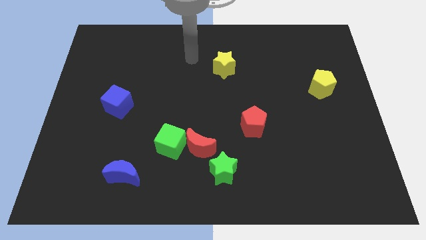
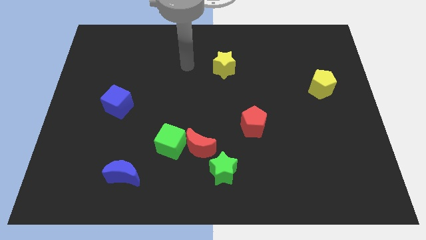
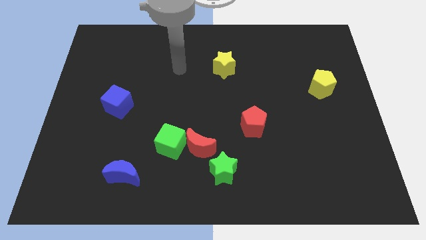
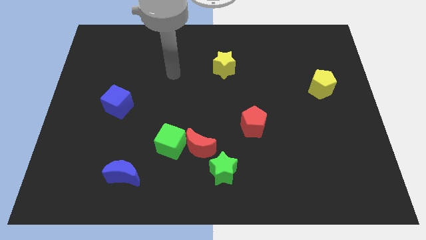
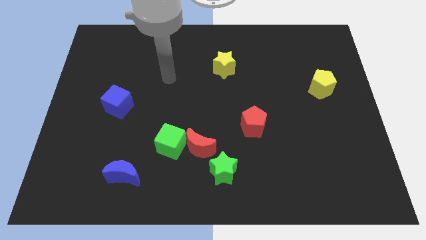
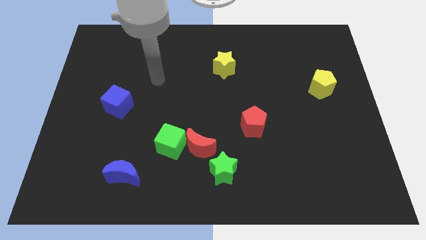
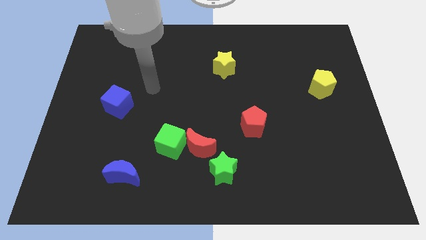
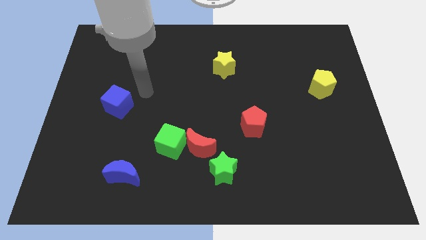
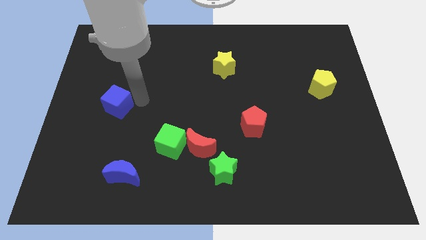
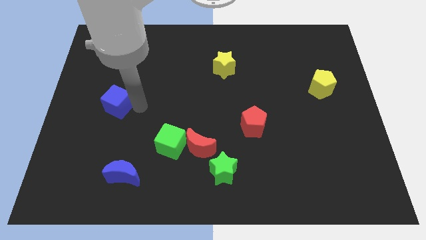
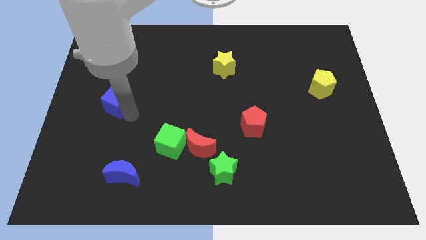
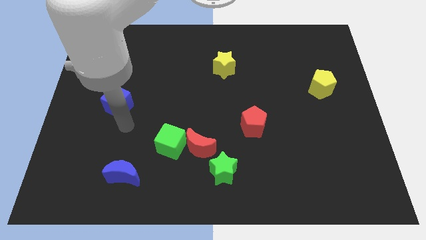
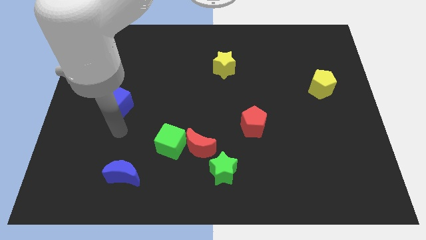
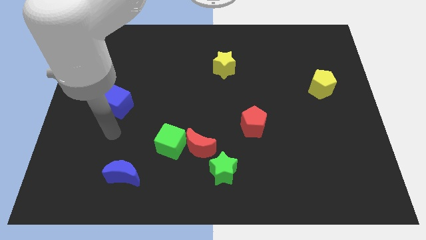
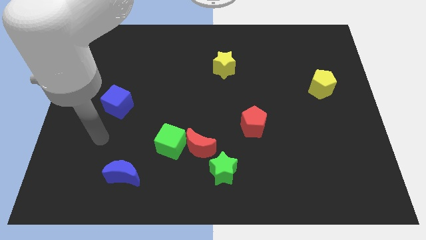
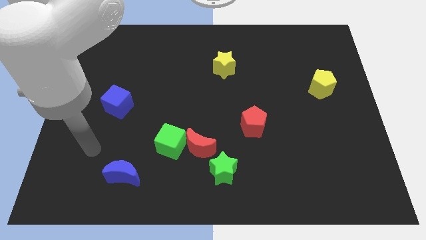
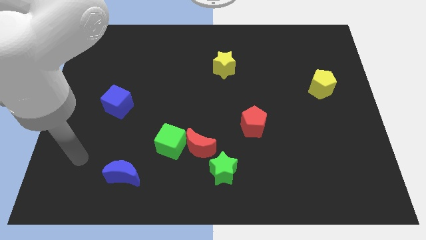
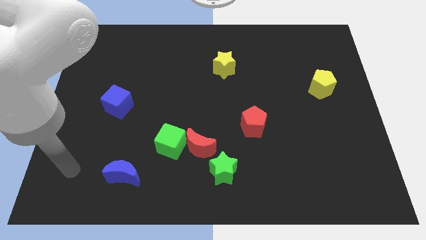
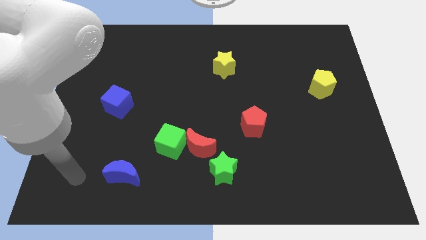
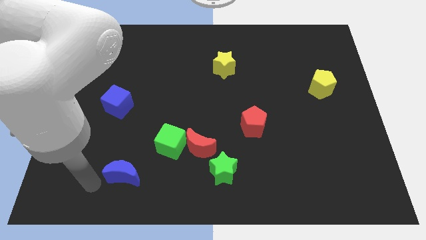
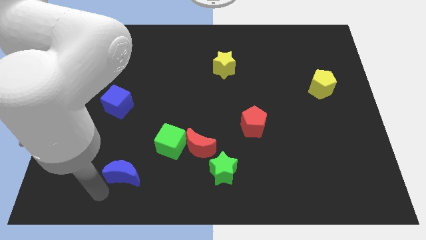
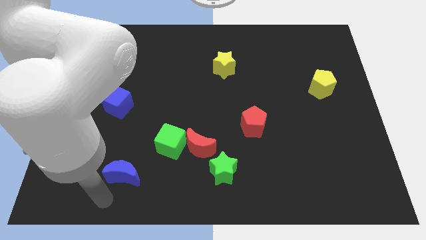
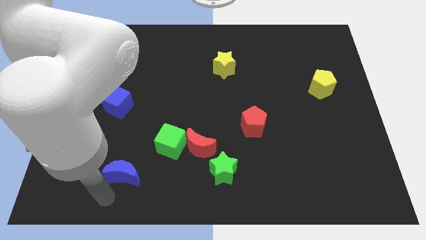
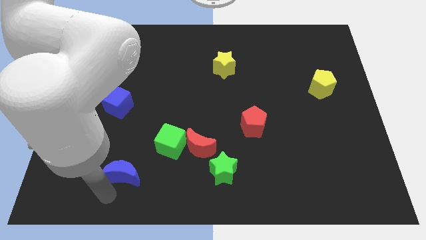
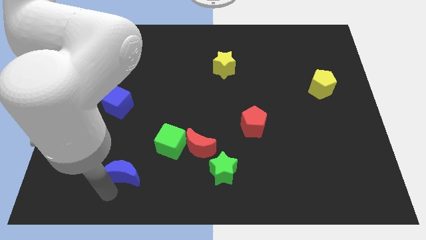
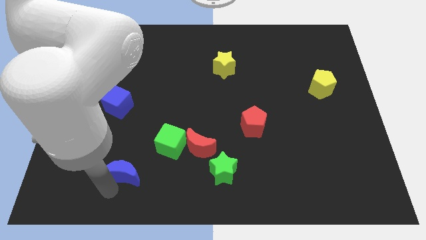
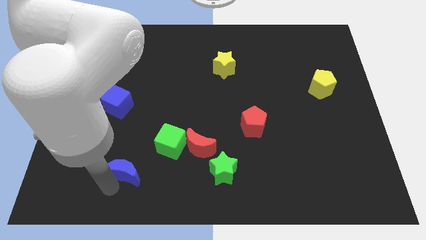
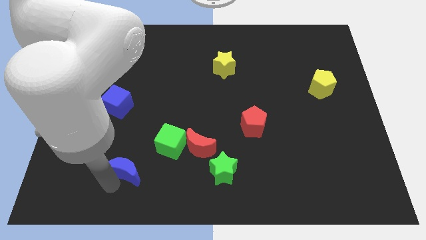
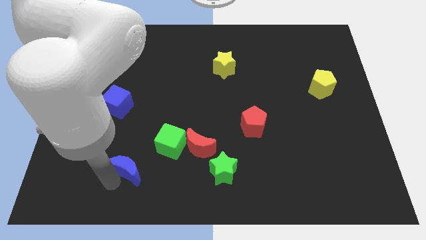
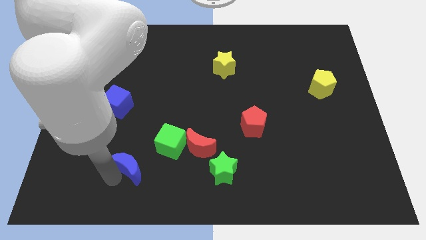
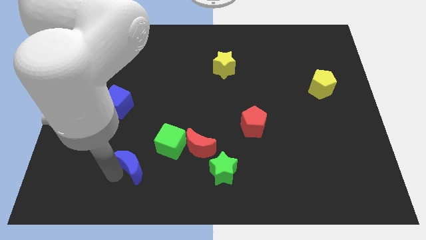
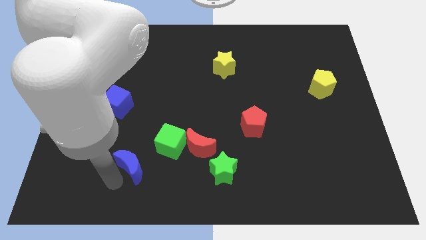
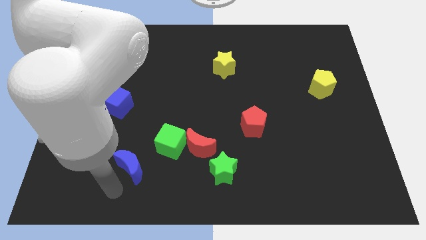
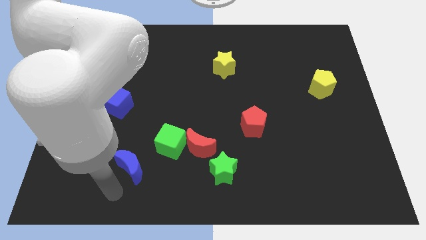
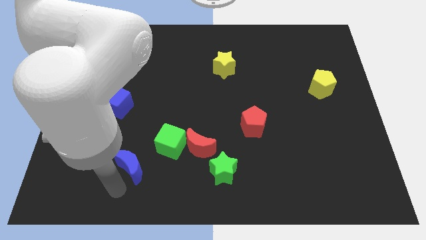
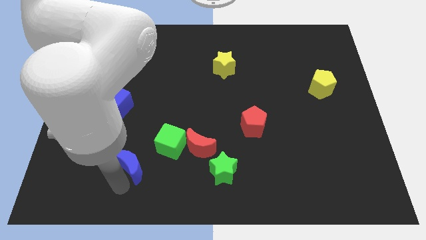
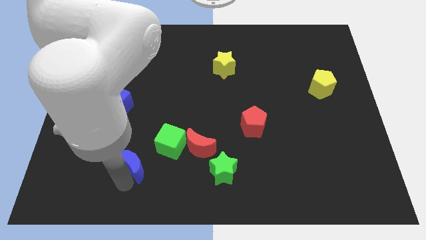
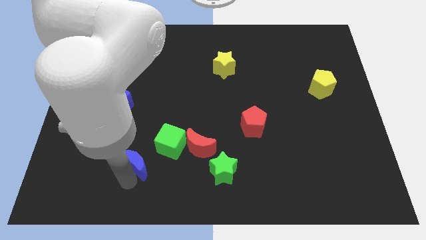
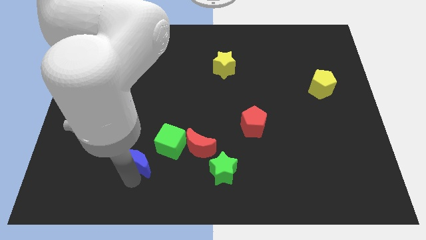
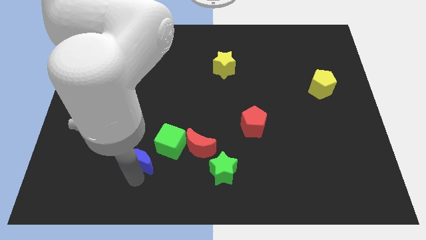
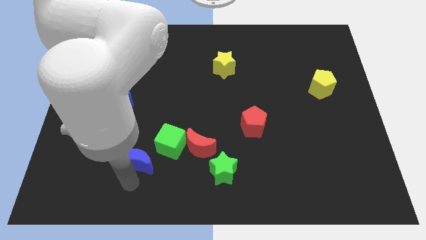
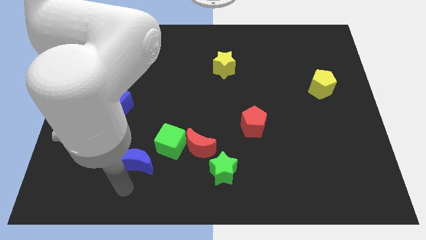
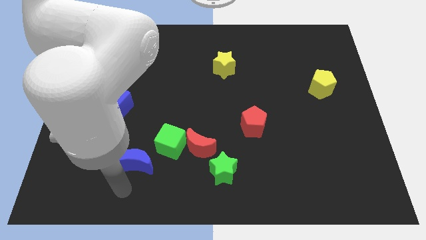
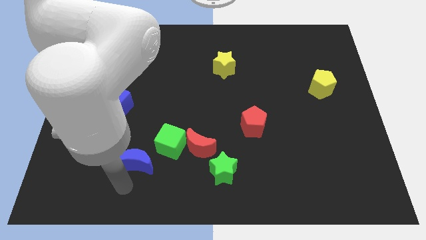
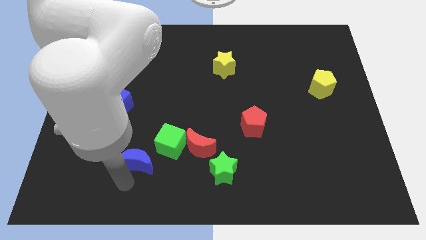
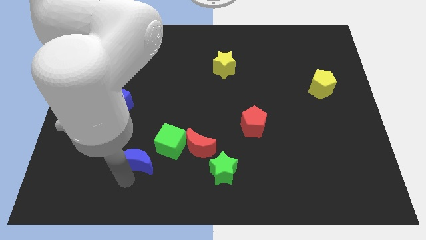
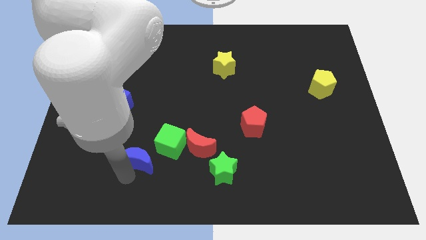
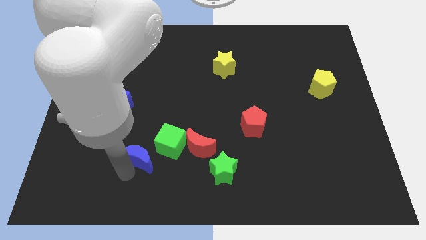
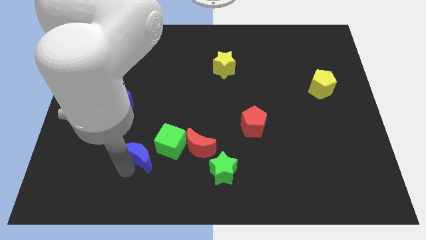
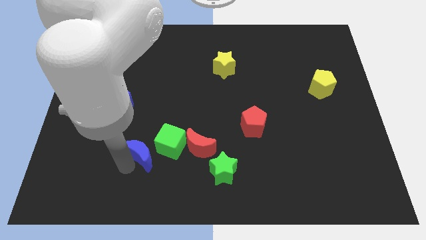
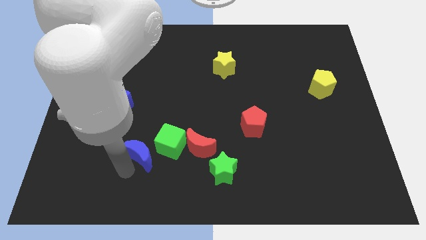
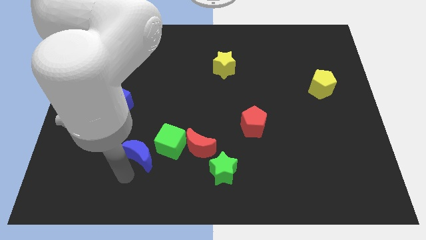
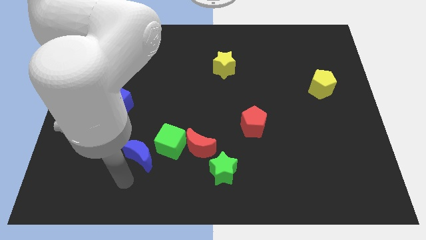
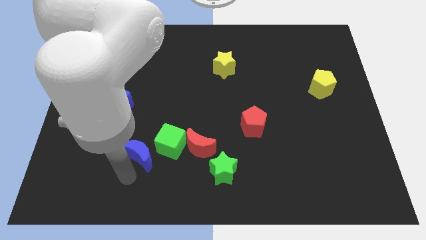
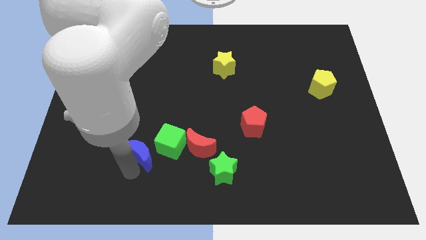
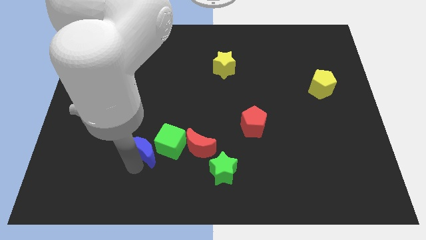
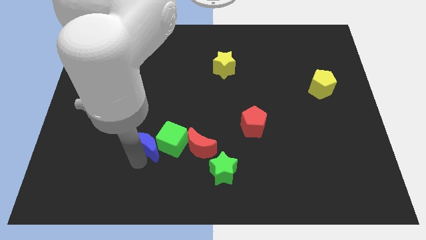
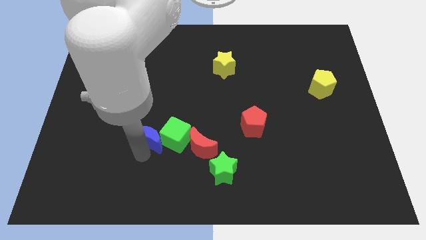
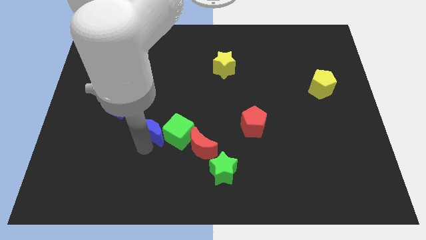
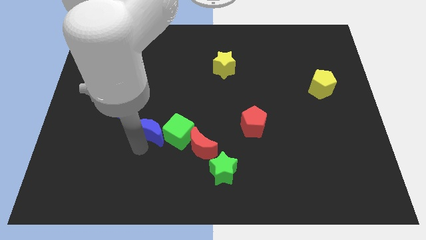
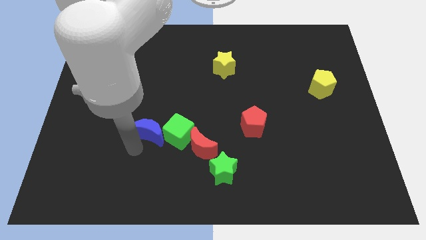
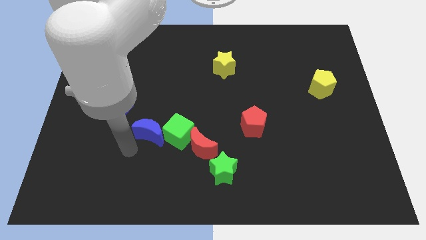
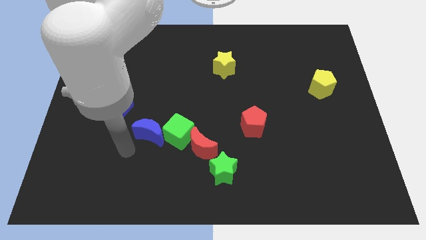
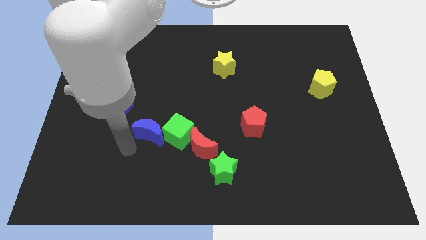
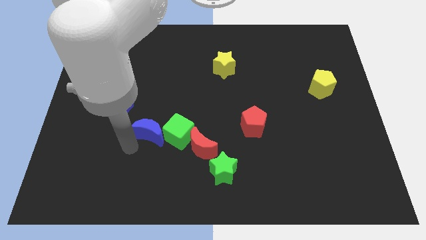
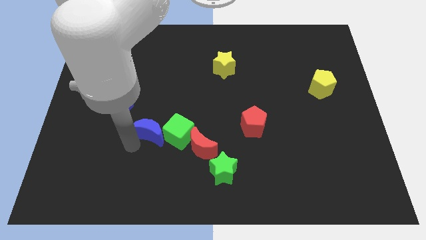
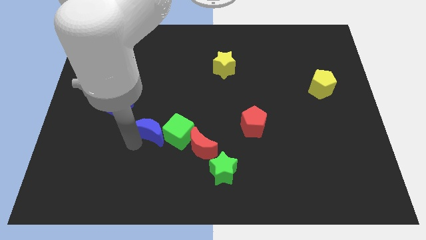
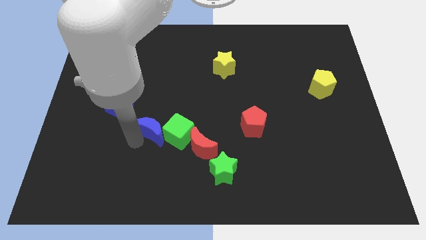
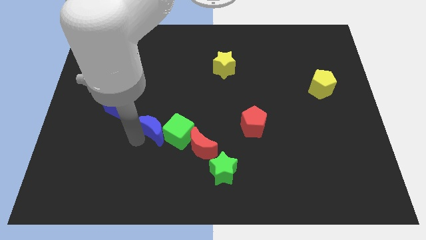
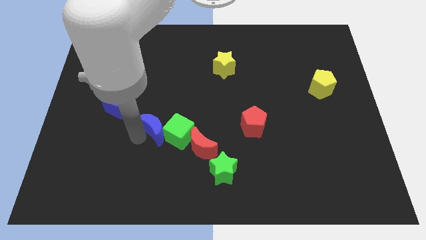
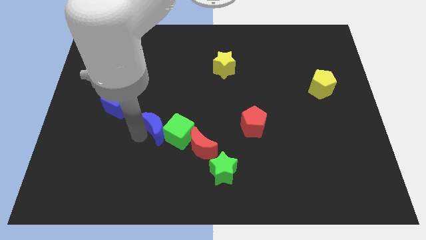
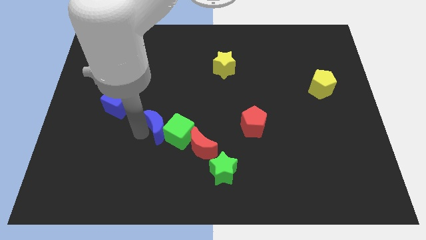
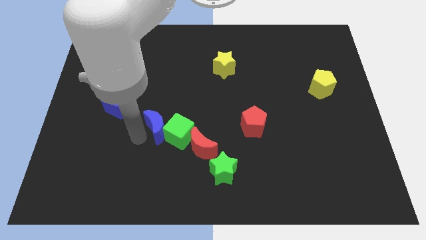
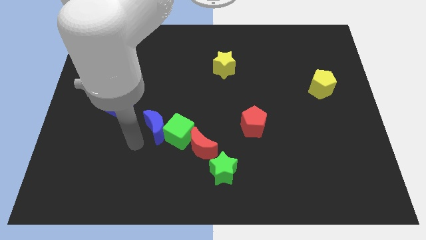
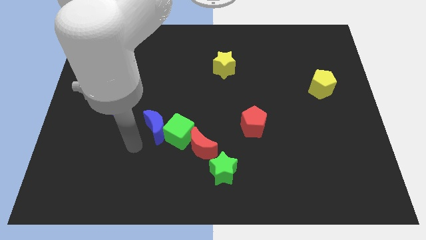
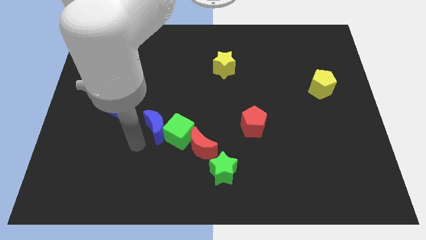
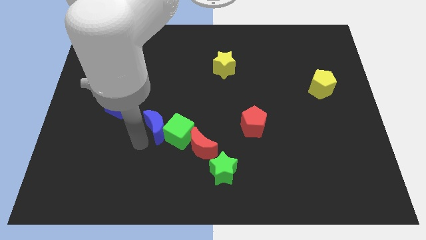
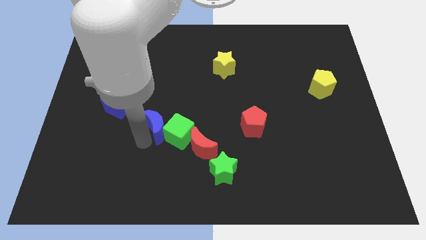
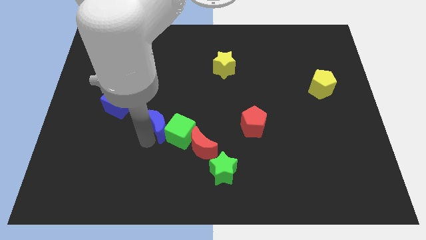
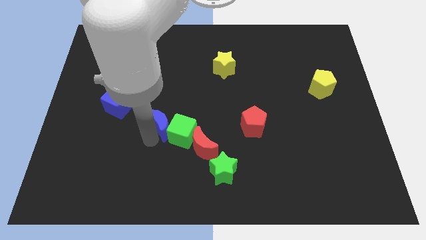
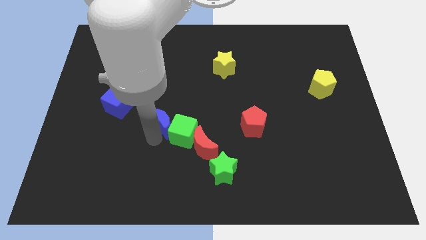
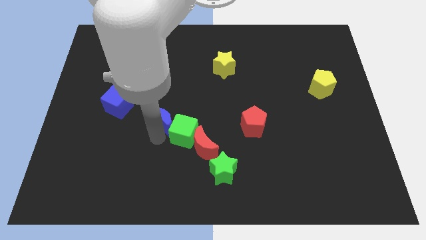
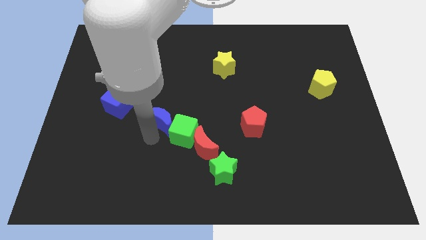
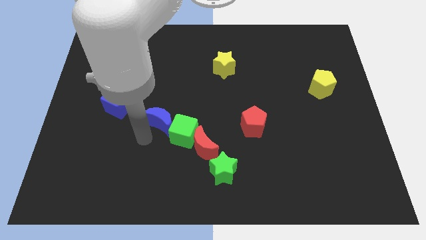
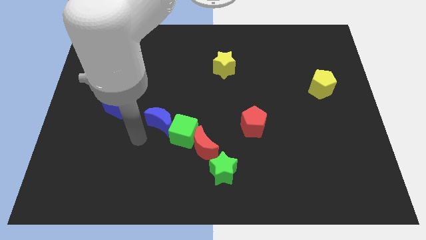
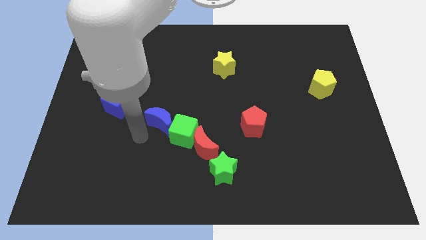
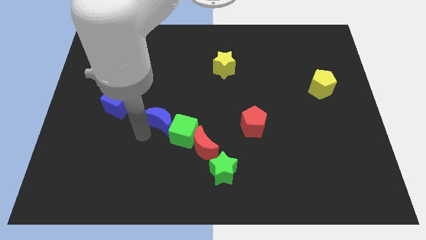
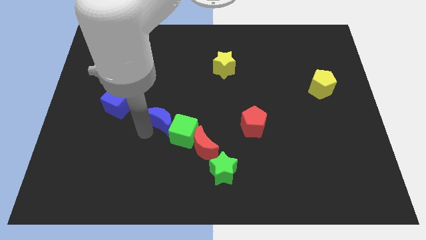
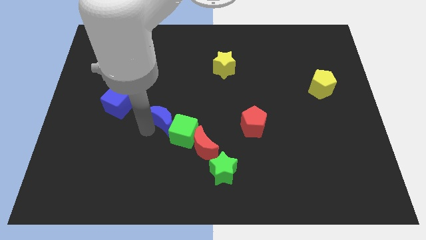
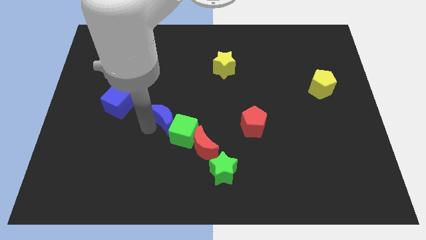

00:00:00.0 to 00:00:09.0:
put the blue moon to the middle of the board
